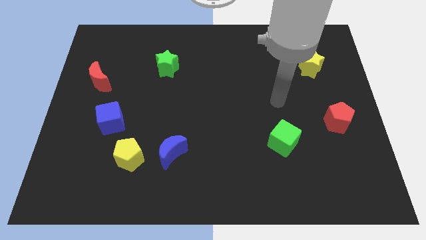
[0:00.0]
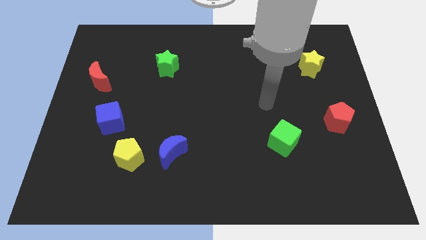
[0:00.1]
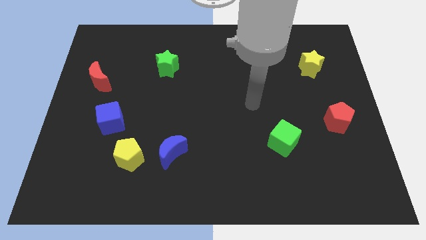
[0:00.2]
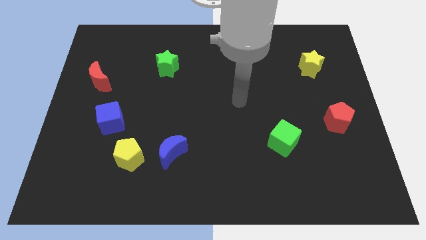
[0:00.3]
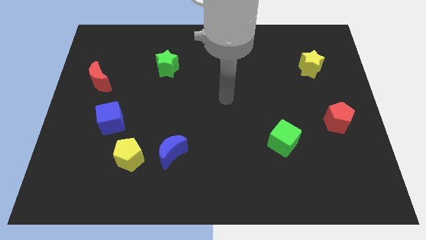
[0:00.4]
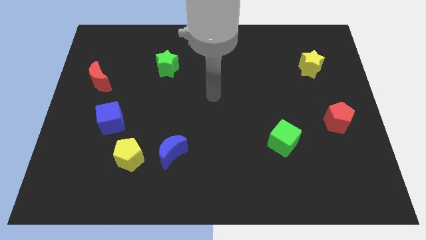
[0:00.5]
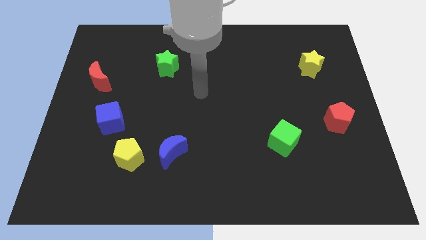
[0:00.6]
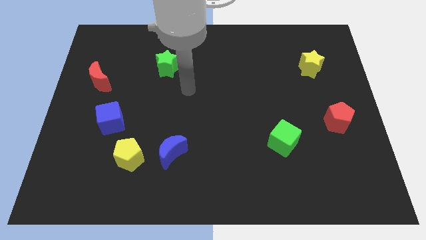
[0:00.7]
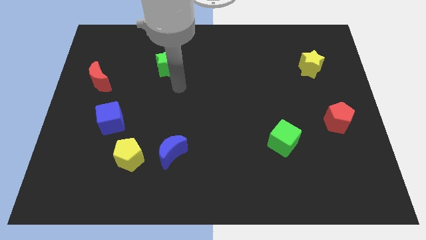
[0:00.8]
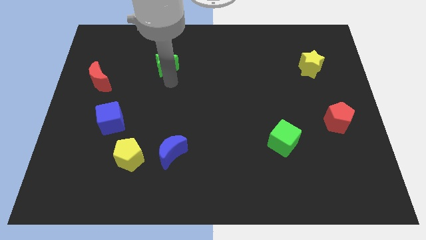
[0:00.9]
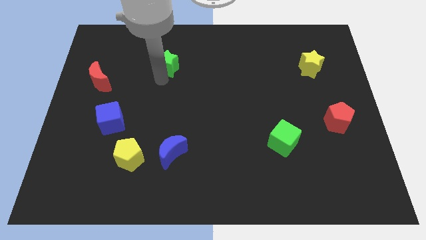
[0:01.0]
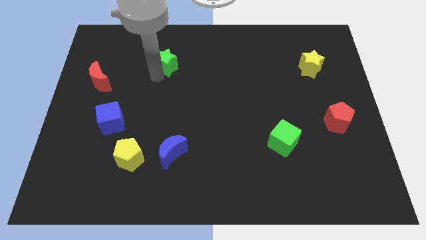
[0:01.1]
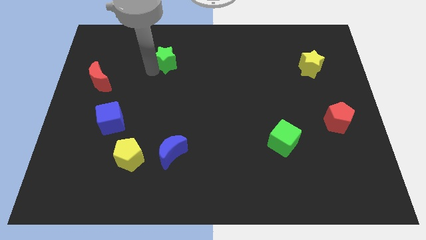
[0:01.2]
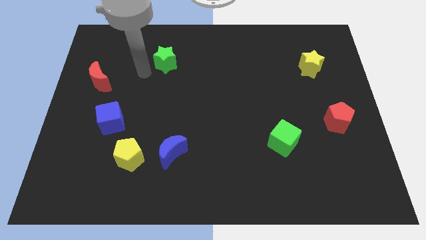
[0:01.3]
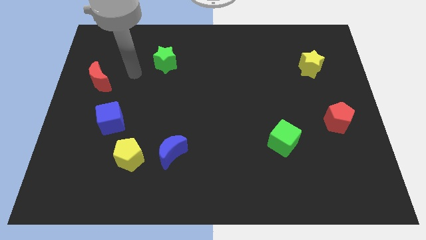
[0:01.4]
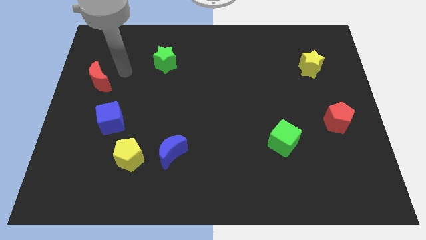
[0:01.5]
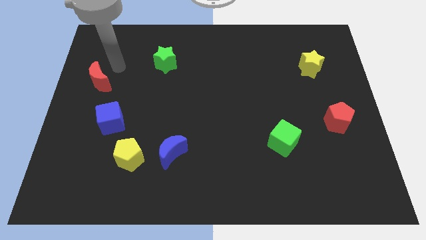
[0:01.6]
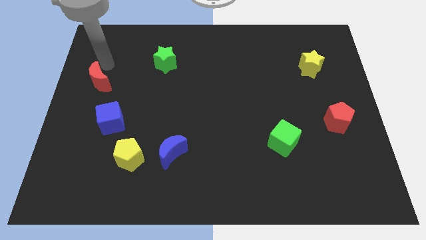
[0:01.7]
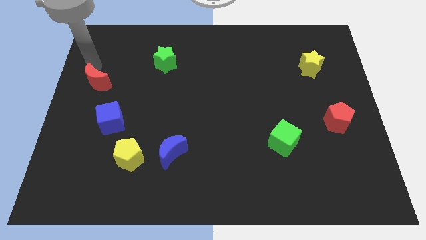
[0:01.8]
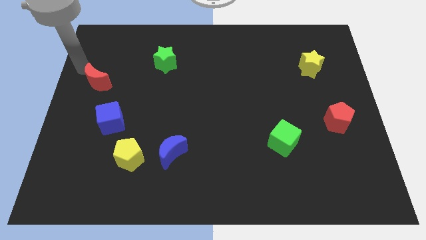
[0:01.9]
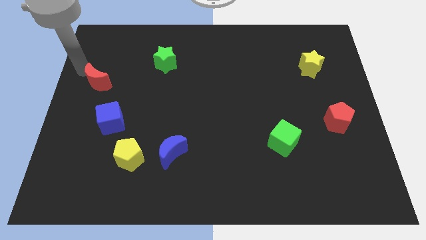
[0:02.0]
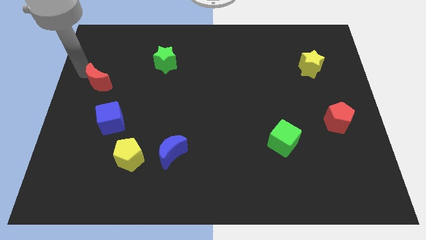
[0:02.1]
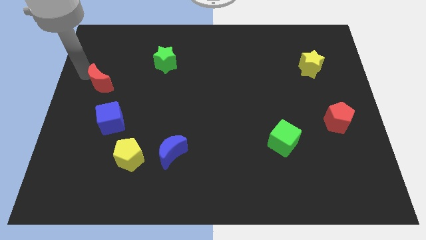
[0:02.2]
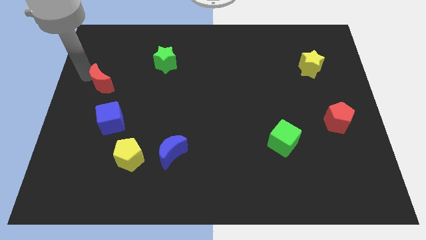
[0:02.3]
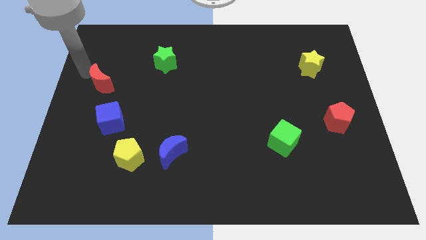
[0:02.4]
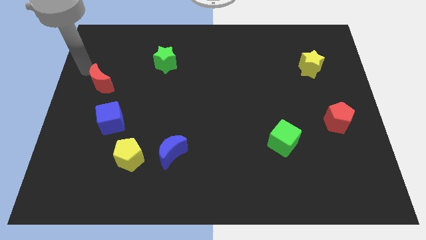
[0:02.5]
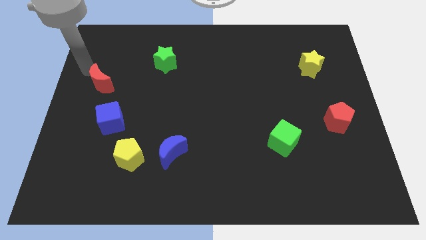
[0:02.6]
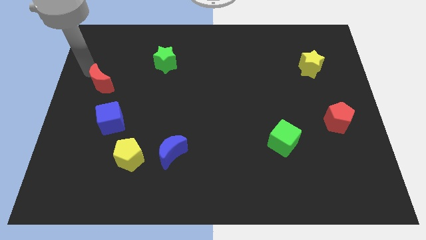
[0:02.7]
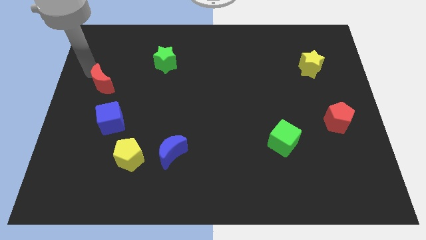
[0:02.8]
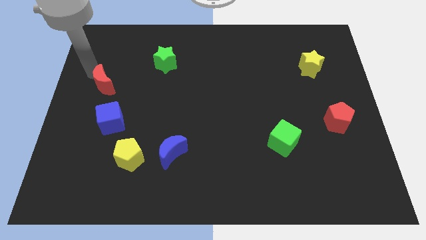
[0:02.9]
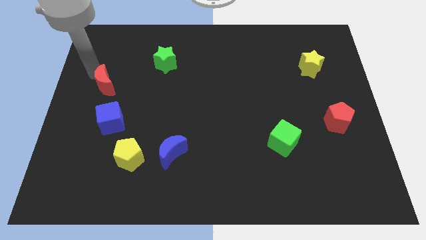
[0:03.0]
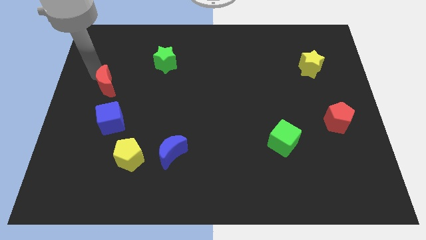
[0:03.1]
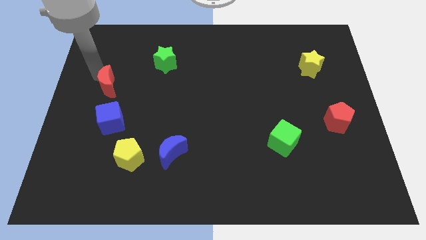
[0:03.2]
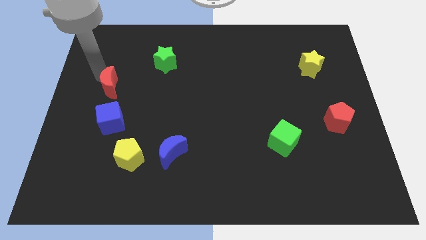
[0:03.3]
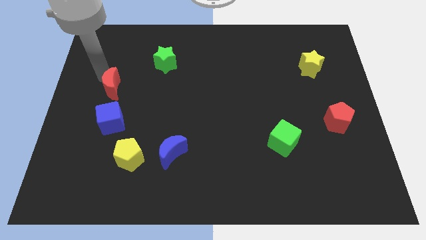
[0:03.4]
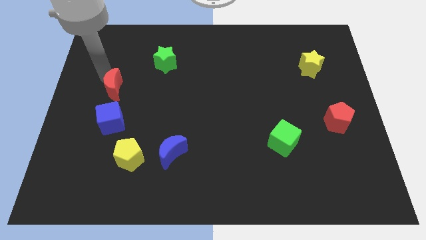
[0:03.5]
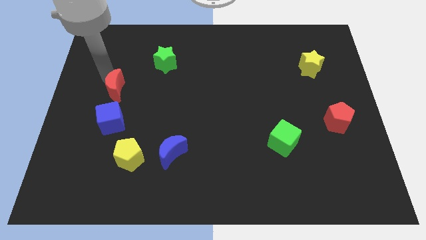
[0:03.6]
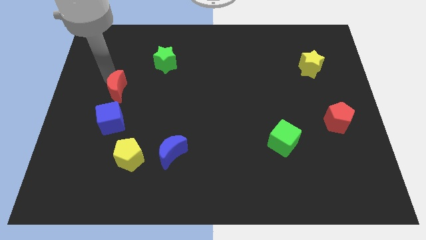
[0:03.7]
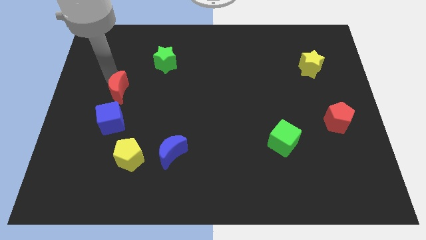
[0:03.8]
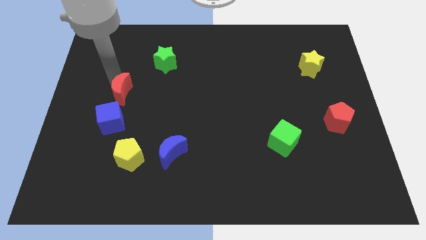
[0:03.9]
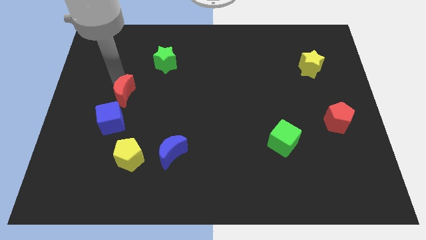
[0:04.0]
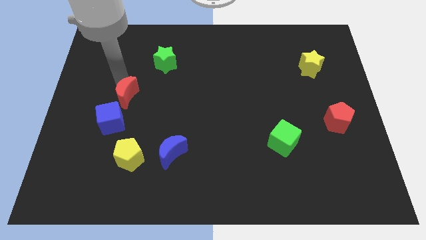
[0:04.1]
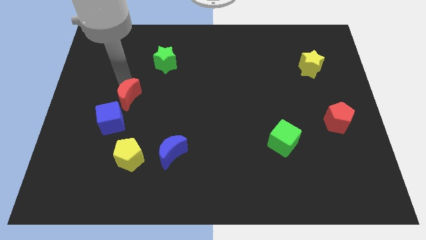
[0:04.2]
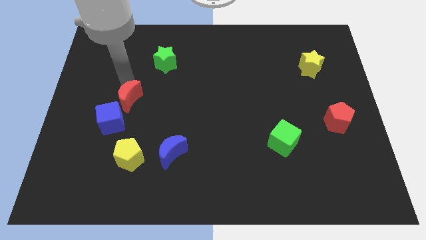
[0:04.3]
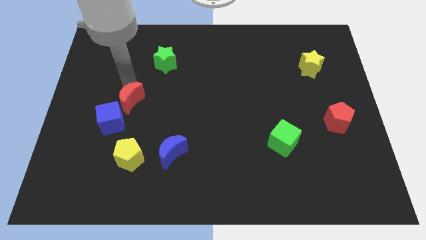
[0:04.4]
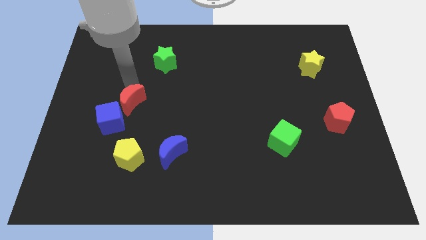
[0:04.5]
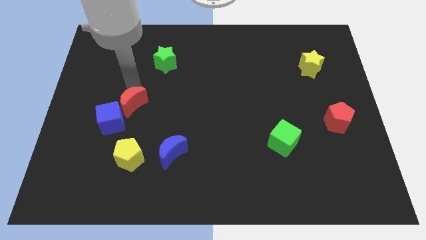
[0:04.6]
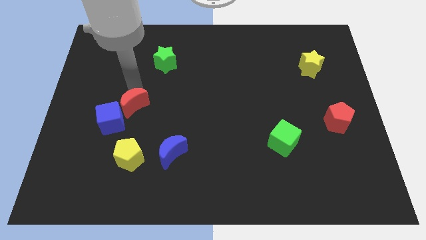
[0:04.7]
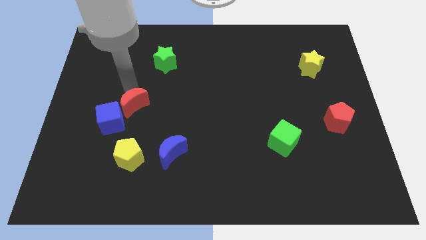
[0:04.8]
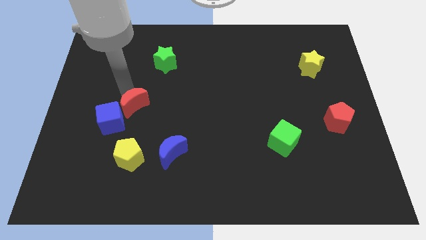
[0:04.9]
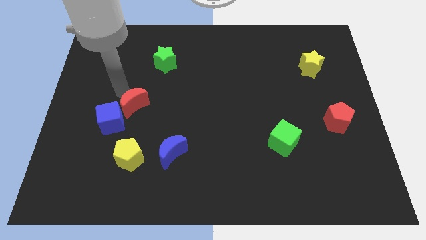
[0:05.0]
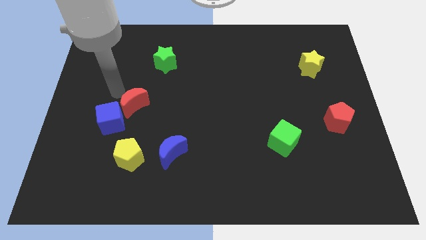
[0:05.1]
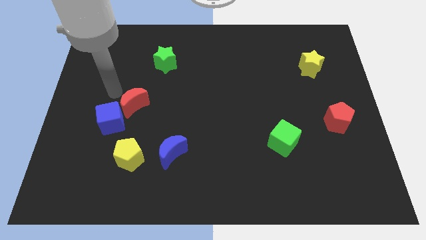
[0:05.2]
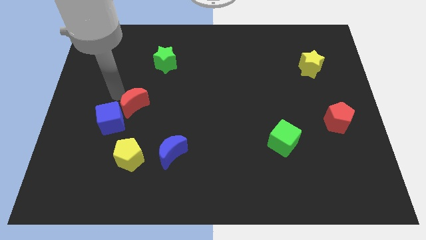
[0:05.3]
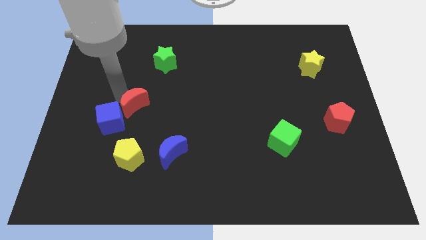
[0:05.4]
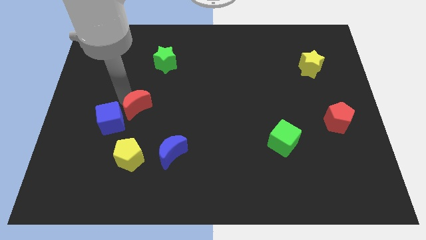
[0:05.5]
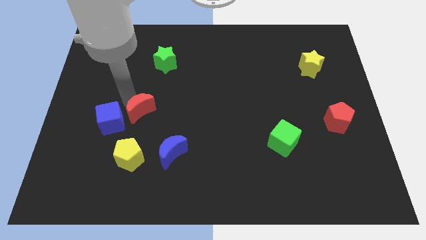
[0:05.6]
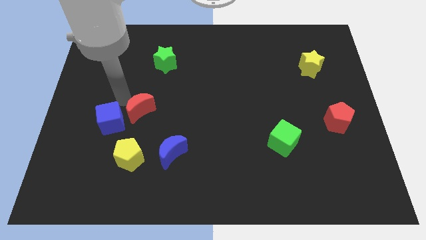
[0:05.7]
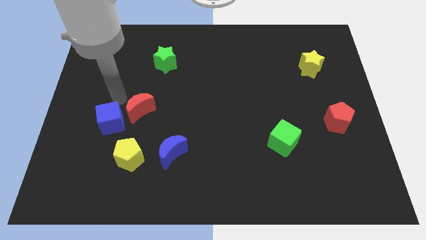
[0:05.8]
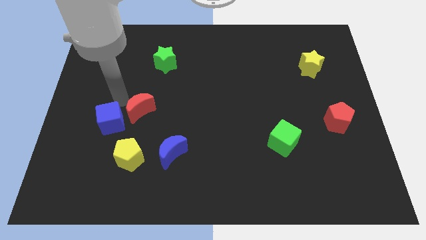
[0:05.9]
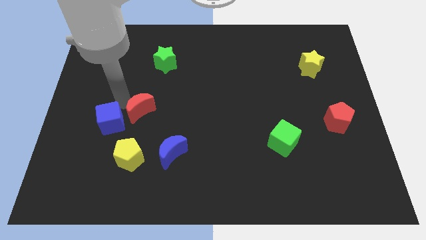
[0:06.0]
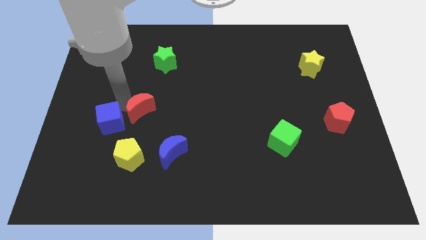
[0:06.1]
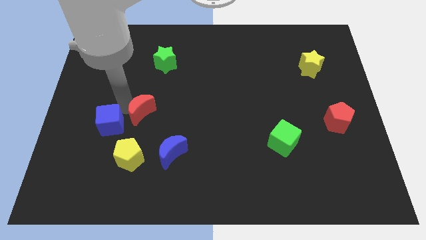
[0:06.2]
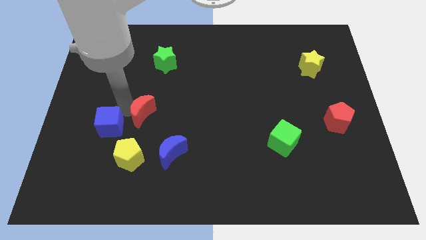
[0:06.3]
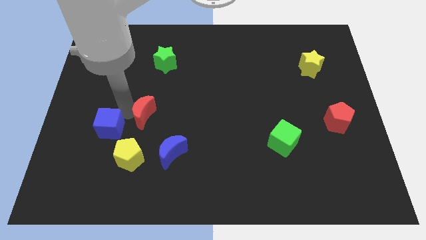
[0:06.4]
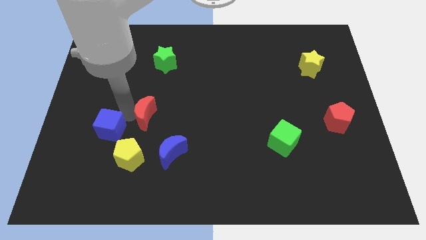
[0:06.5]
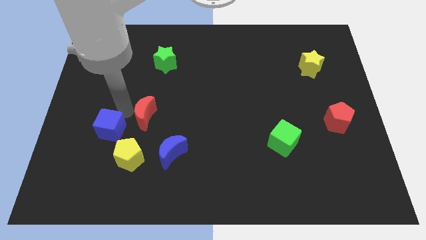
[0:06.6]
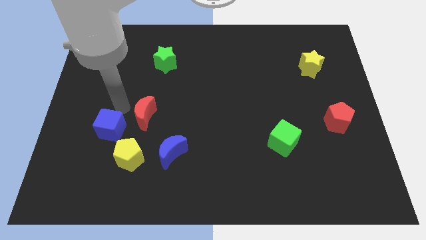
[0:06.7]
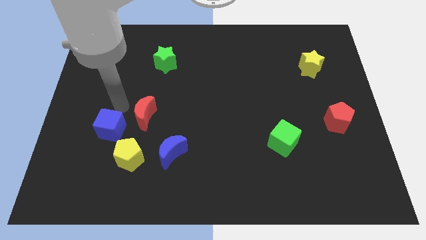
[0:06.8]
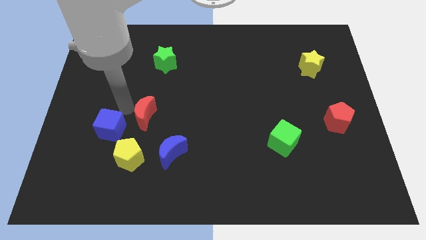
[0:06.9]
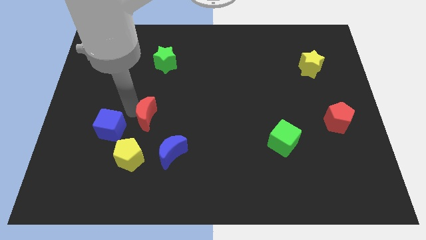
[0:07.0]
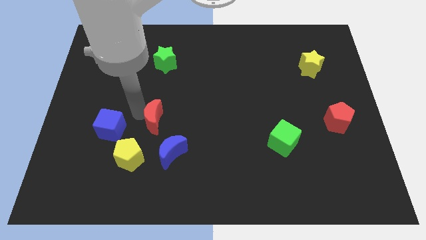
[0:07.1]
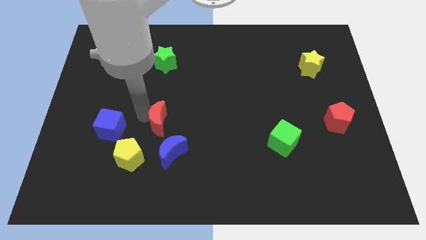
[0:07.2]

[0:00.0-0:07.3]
slide the red moon diagonally down and right

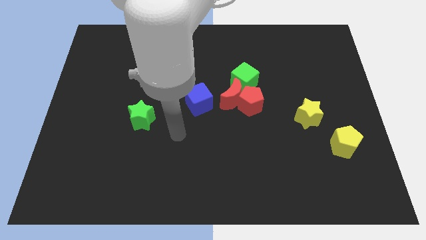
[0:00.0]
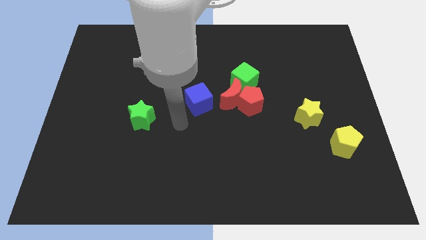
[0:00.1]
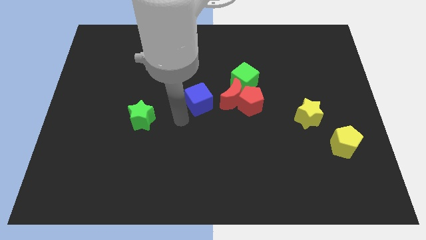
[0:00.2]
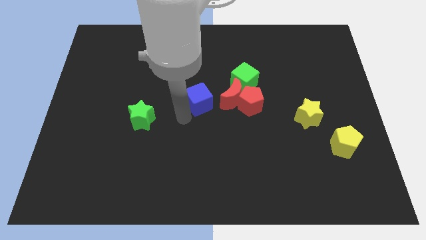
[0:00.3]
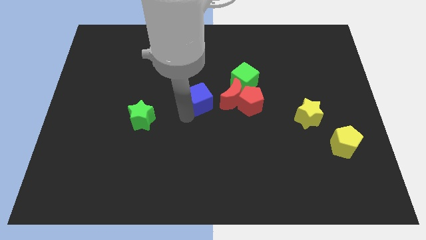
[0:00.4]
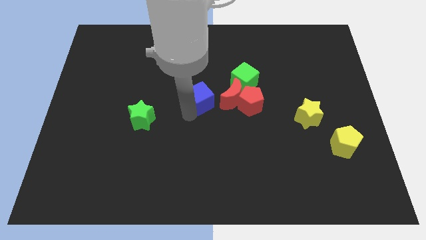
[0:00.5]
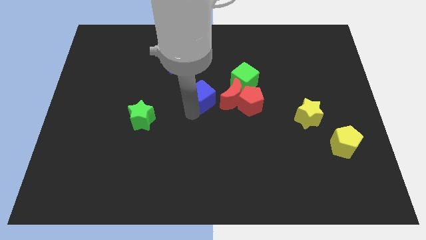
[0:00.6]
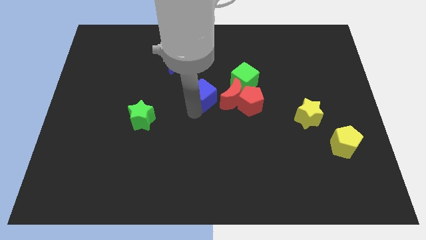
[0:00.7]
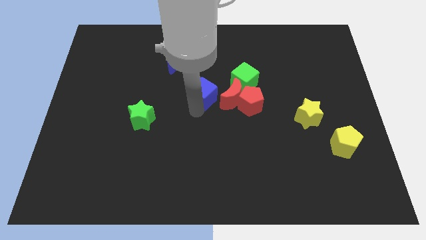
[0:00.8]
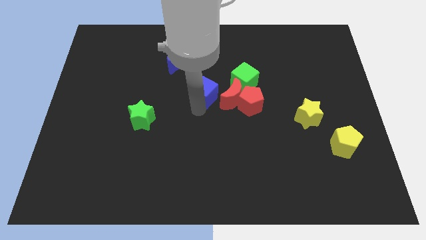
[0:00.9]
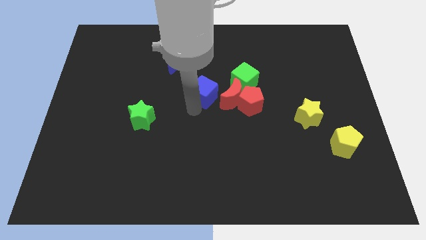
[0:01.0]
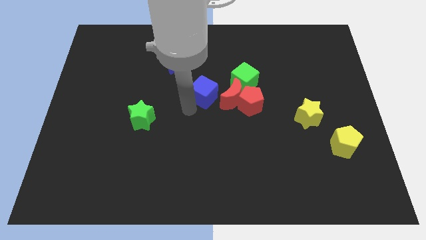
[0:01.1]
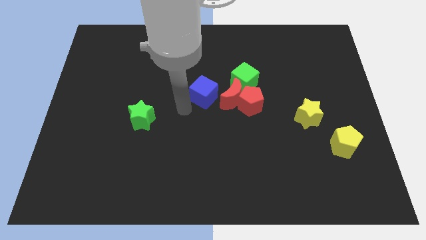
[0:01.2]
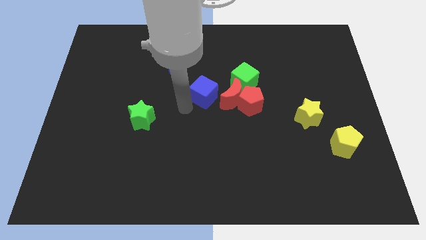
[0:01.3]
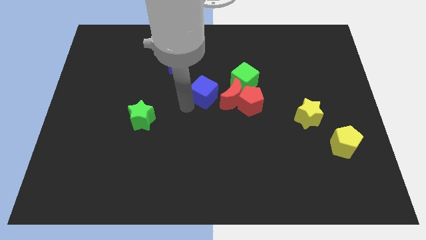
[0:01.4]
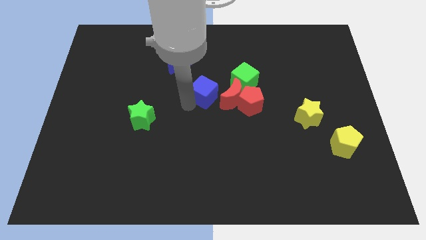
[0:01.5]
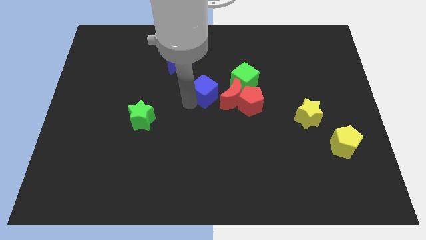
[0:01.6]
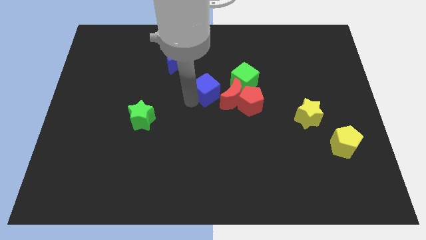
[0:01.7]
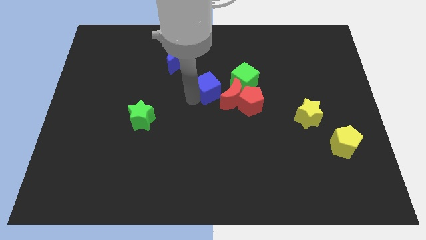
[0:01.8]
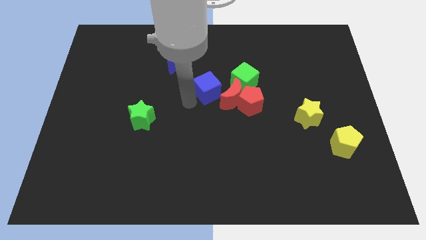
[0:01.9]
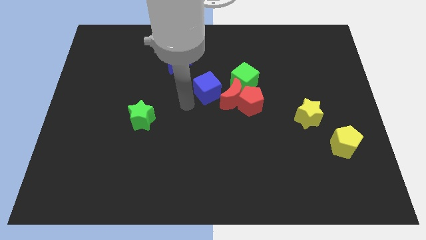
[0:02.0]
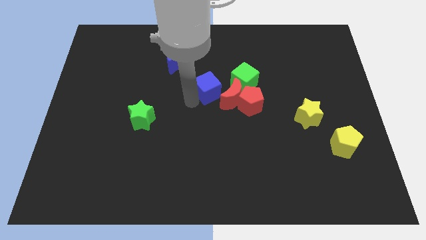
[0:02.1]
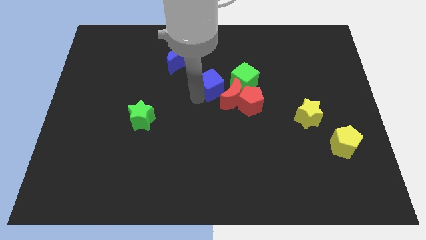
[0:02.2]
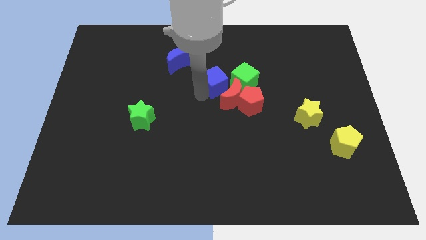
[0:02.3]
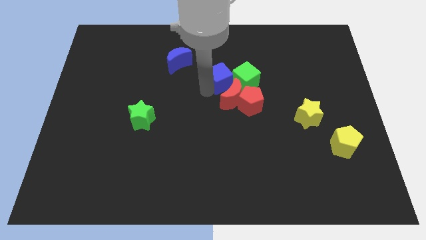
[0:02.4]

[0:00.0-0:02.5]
move the blue cube a bit upwards and to the right
